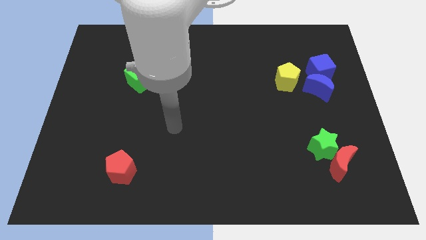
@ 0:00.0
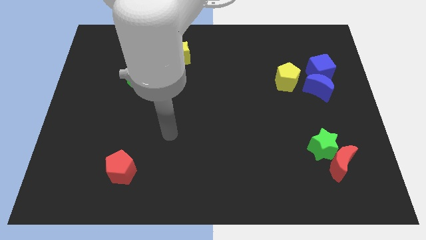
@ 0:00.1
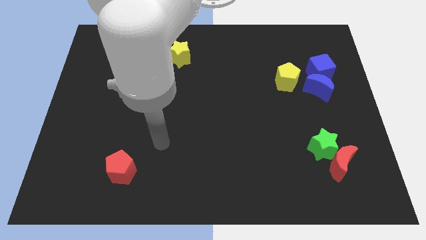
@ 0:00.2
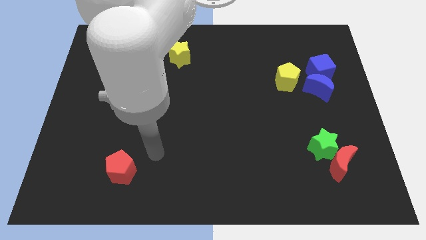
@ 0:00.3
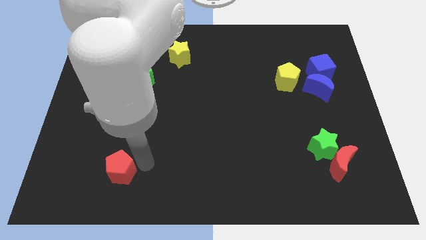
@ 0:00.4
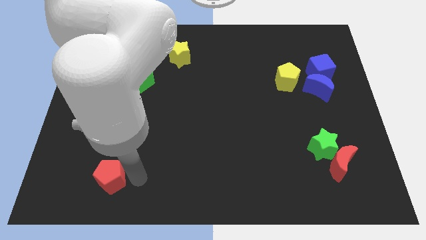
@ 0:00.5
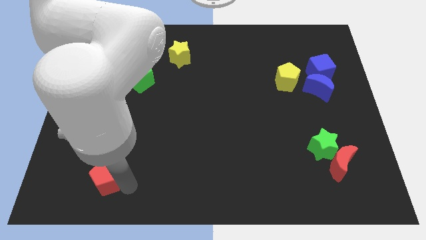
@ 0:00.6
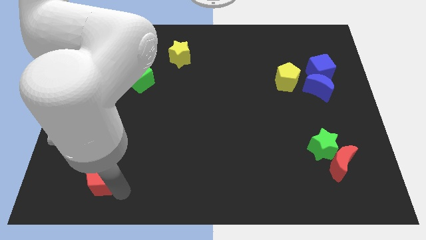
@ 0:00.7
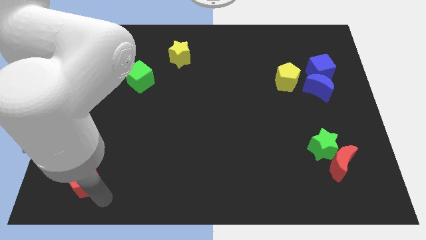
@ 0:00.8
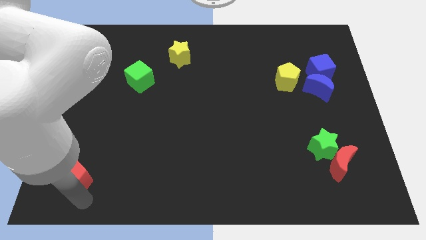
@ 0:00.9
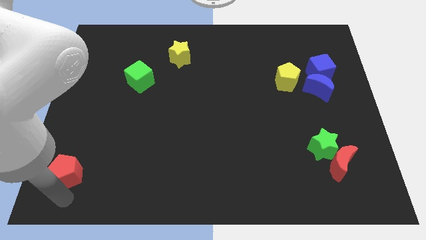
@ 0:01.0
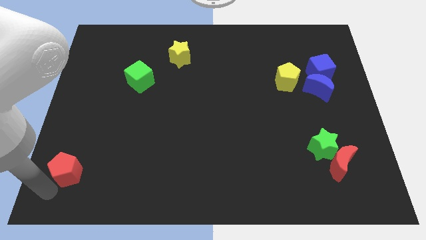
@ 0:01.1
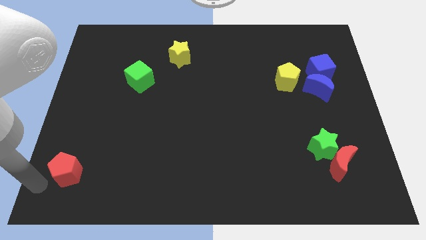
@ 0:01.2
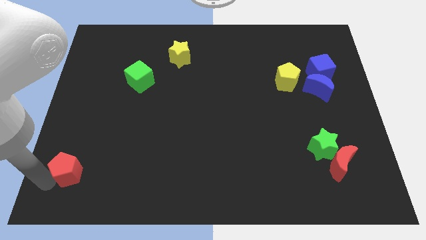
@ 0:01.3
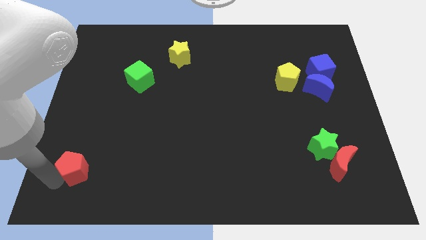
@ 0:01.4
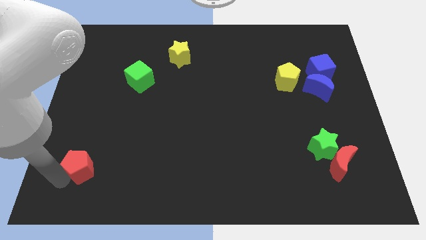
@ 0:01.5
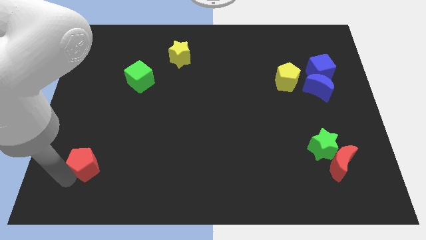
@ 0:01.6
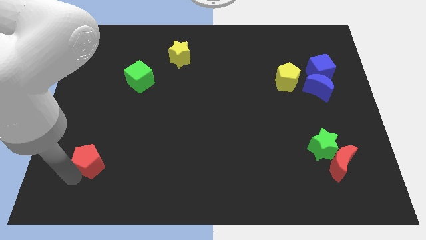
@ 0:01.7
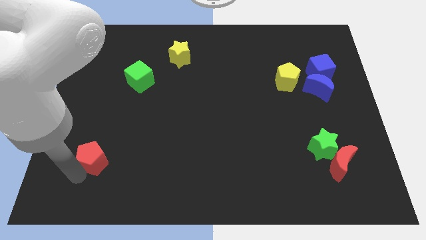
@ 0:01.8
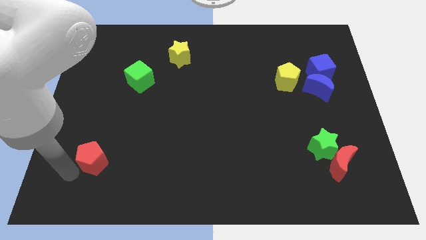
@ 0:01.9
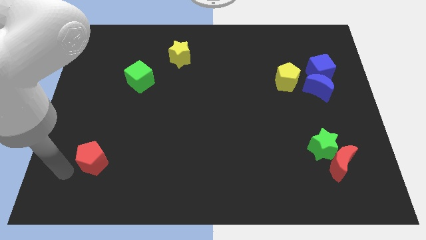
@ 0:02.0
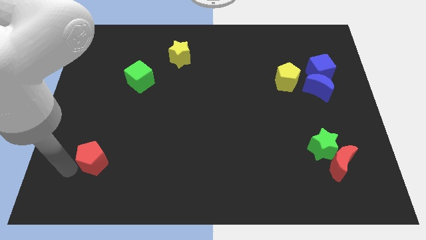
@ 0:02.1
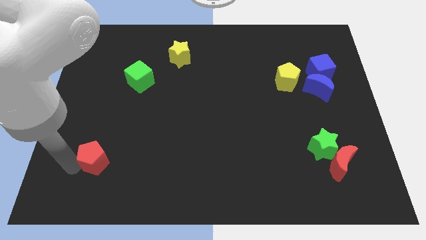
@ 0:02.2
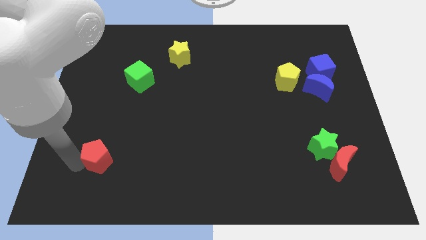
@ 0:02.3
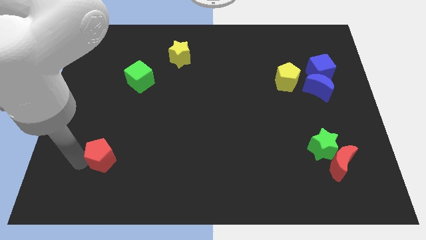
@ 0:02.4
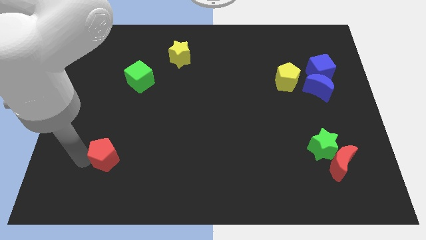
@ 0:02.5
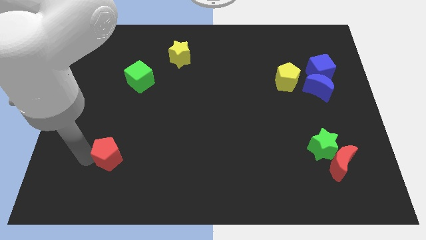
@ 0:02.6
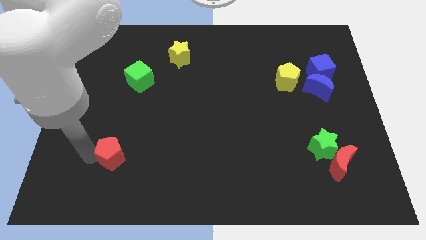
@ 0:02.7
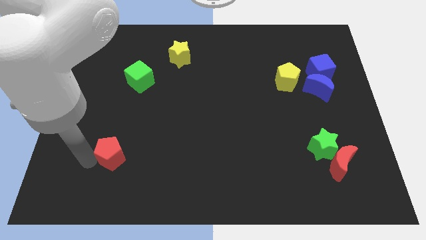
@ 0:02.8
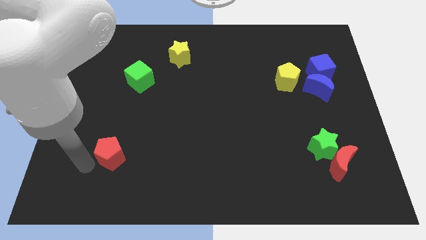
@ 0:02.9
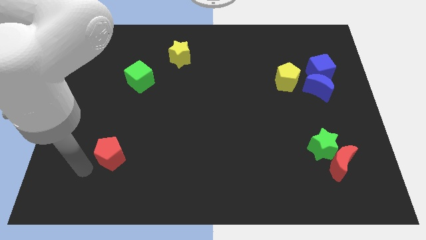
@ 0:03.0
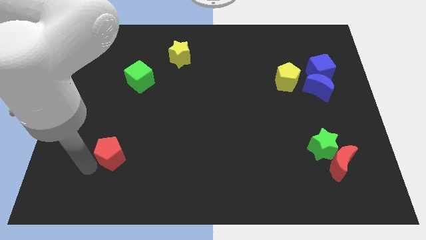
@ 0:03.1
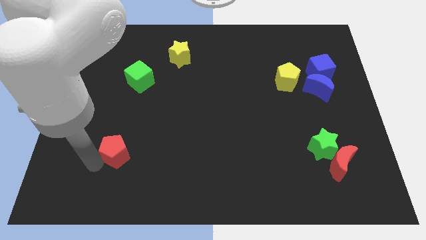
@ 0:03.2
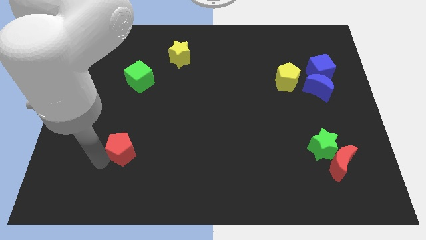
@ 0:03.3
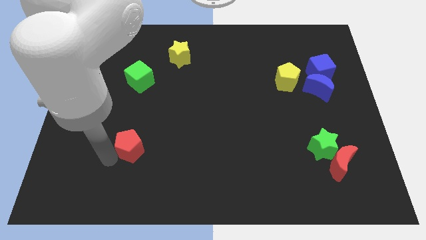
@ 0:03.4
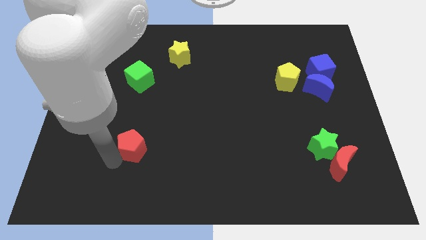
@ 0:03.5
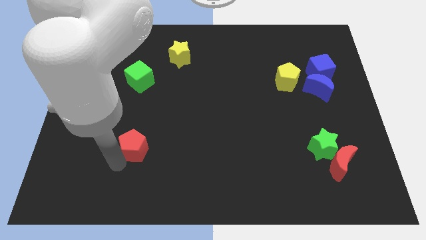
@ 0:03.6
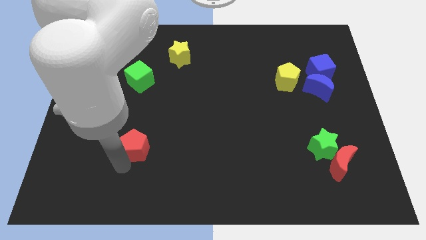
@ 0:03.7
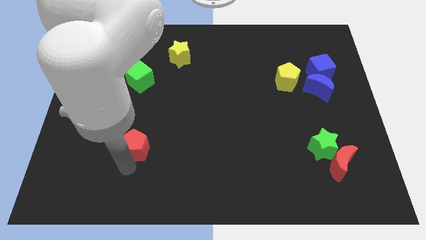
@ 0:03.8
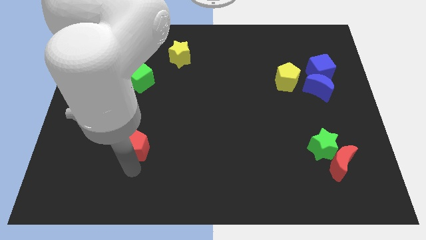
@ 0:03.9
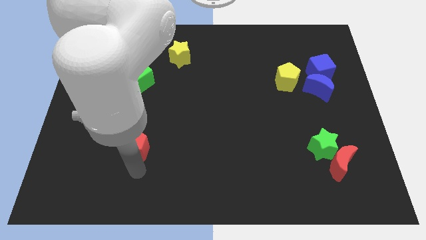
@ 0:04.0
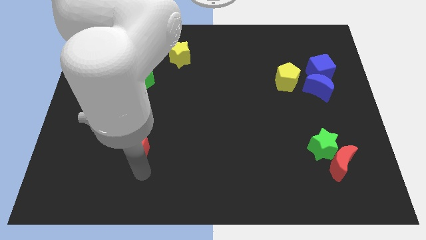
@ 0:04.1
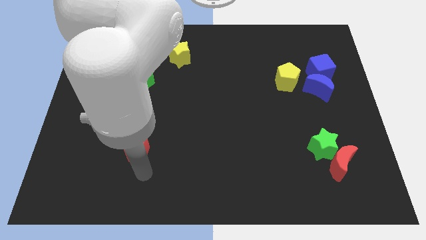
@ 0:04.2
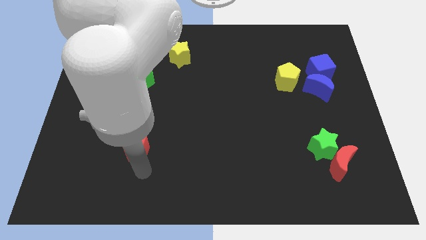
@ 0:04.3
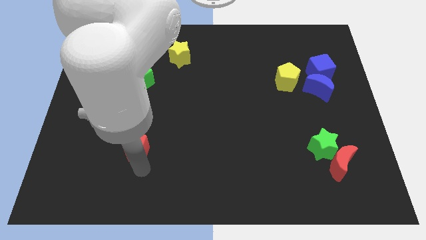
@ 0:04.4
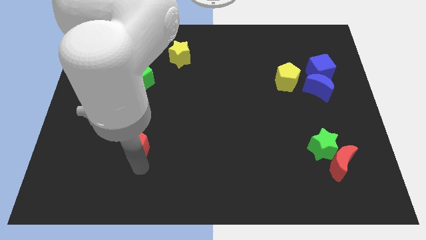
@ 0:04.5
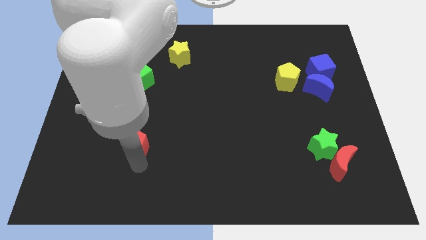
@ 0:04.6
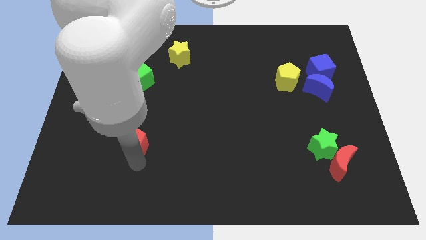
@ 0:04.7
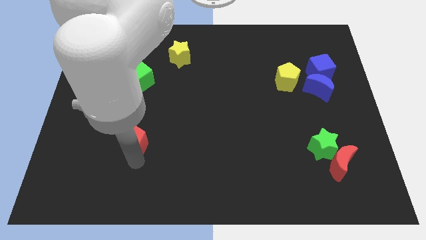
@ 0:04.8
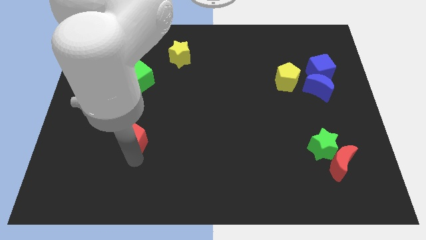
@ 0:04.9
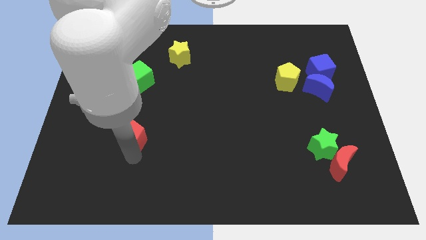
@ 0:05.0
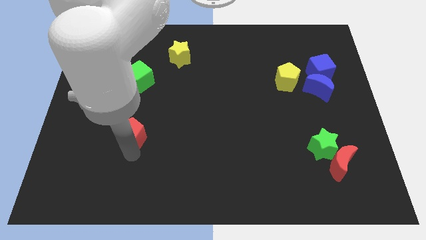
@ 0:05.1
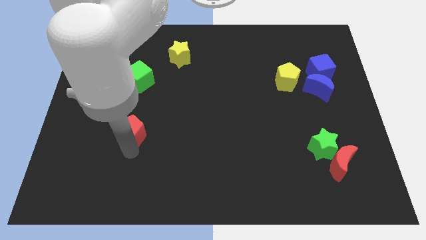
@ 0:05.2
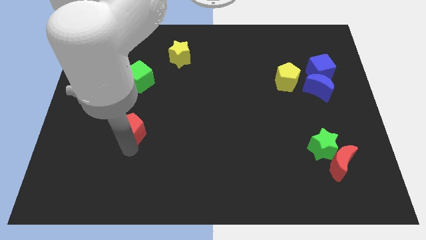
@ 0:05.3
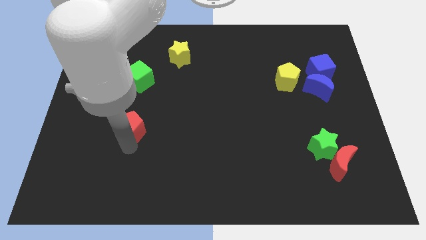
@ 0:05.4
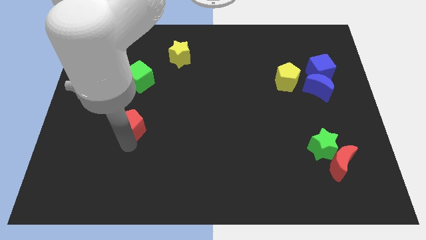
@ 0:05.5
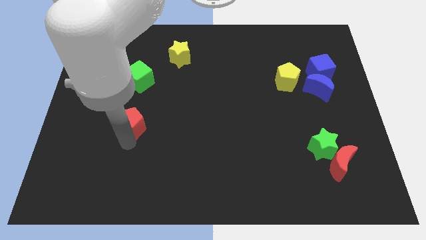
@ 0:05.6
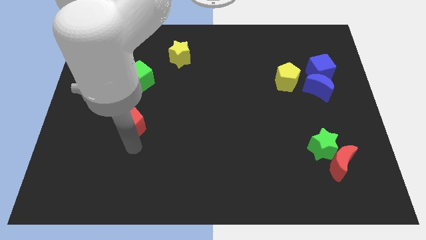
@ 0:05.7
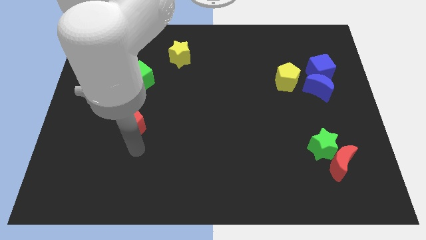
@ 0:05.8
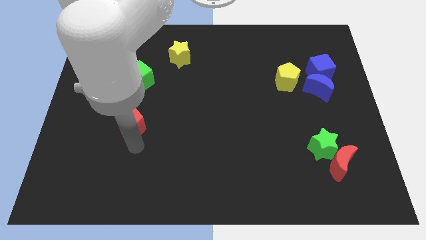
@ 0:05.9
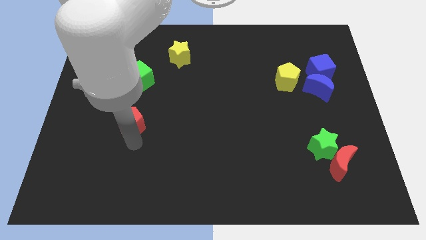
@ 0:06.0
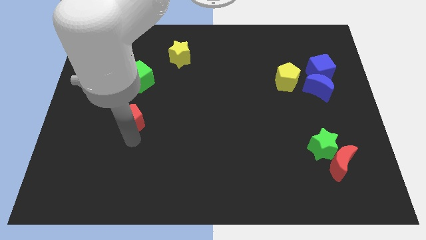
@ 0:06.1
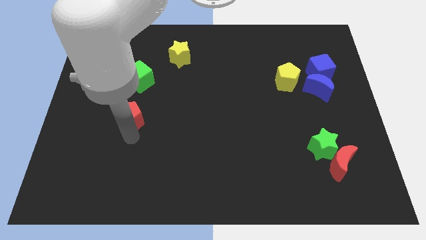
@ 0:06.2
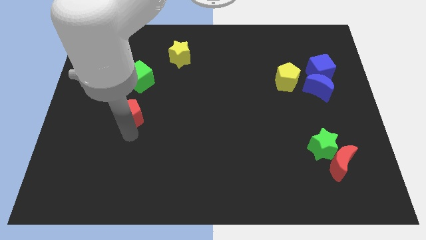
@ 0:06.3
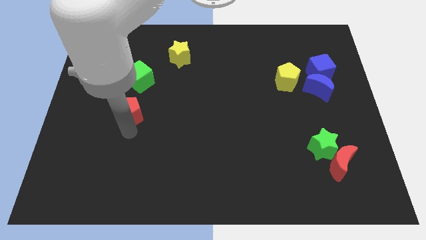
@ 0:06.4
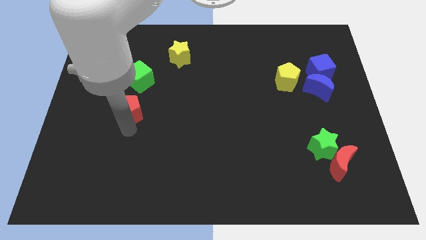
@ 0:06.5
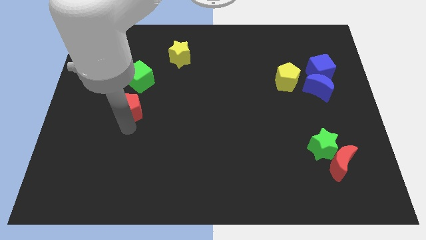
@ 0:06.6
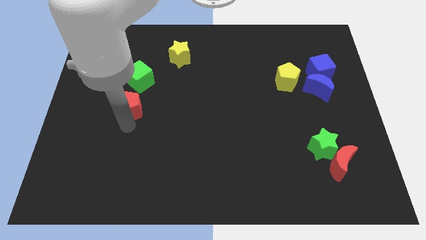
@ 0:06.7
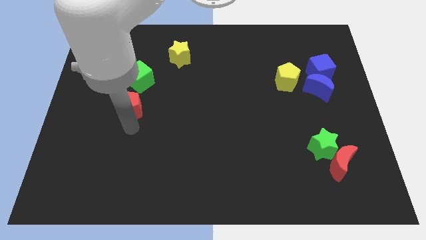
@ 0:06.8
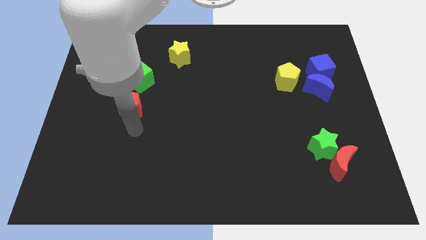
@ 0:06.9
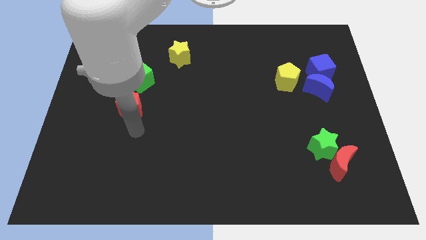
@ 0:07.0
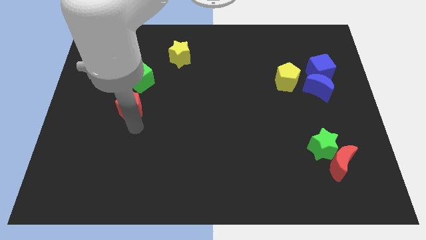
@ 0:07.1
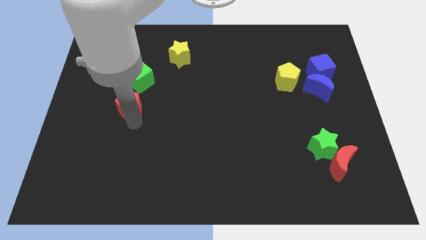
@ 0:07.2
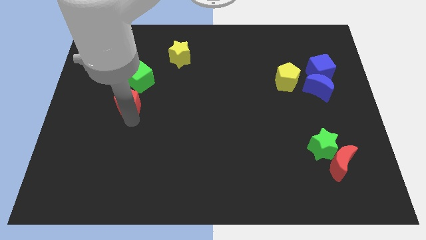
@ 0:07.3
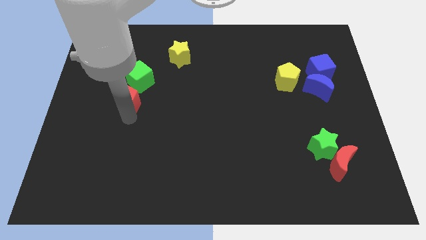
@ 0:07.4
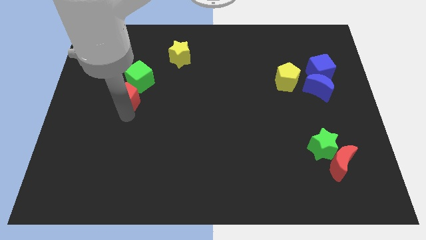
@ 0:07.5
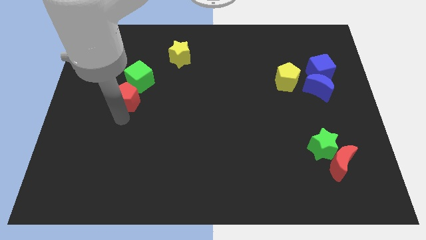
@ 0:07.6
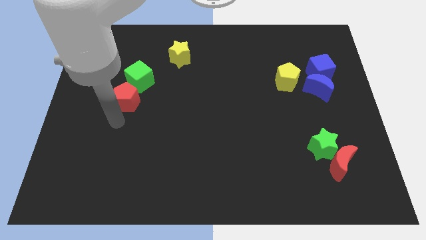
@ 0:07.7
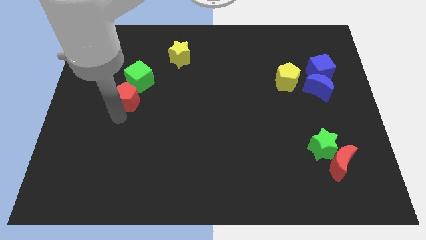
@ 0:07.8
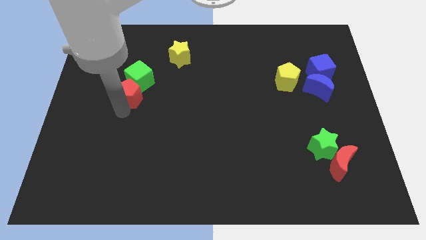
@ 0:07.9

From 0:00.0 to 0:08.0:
slide the red pentagon next to the green cube
